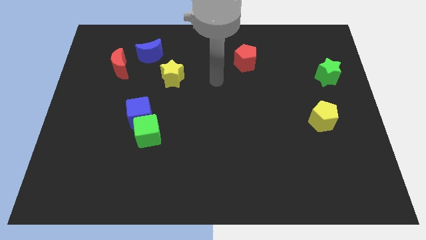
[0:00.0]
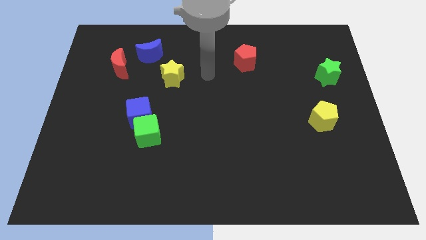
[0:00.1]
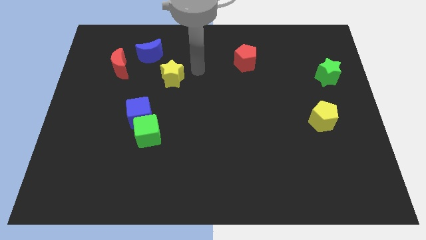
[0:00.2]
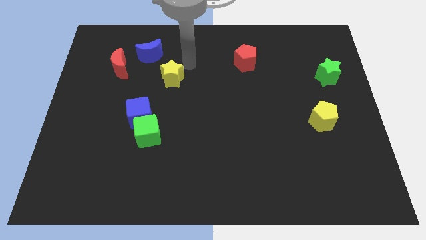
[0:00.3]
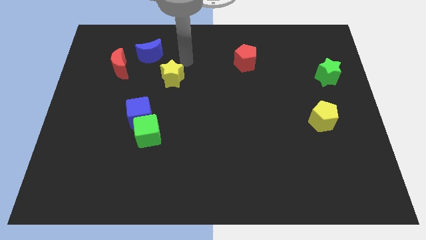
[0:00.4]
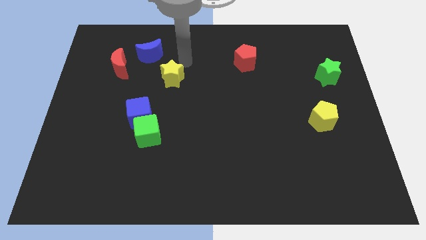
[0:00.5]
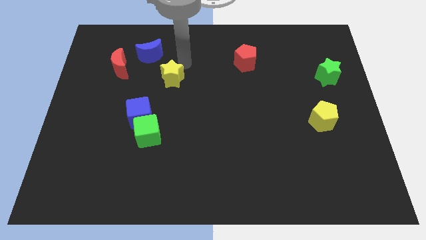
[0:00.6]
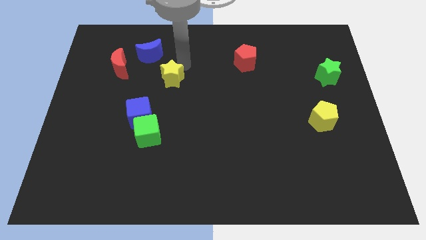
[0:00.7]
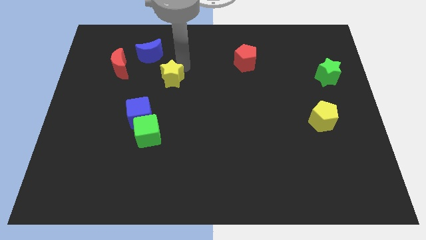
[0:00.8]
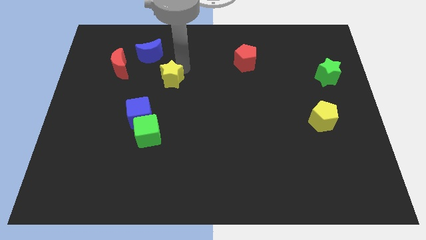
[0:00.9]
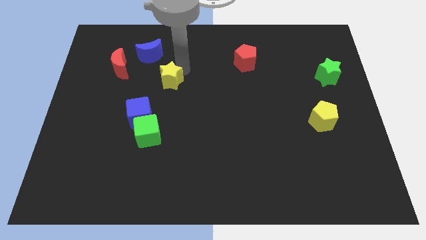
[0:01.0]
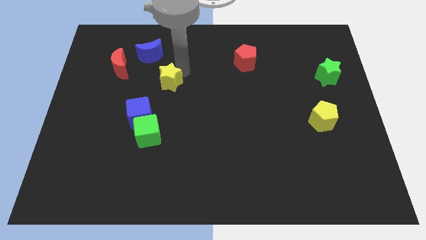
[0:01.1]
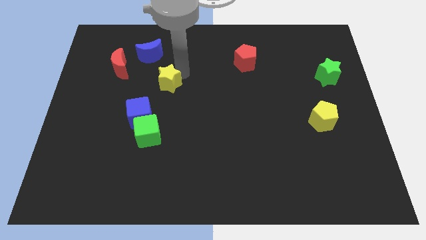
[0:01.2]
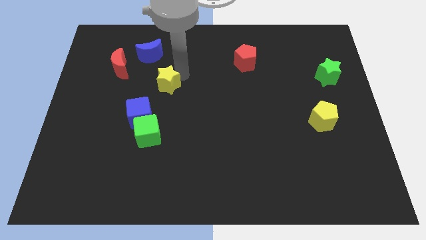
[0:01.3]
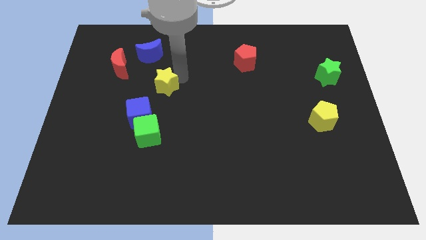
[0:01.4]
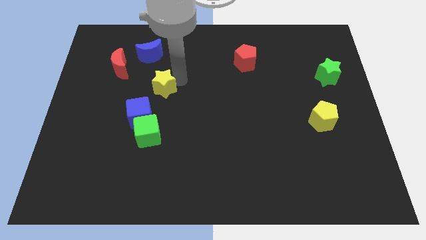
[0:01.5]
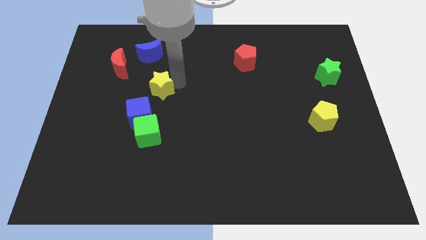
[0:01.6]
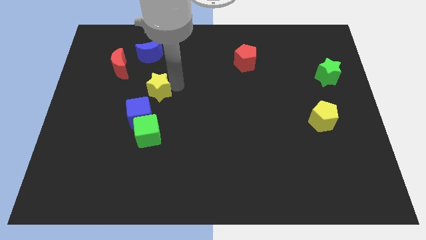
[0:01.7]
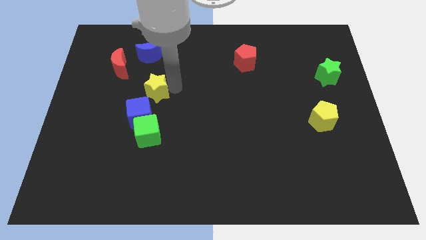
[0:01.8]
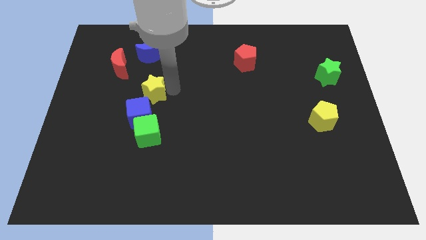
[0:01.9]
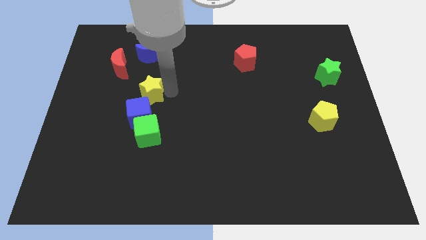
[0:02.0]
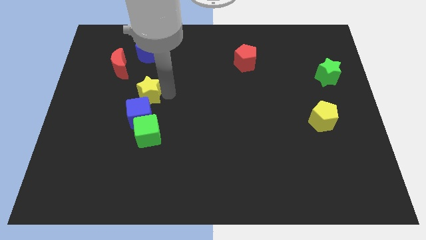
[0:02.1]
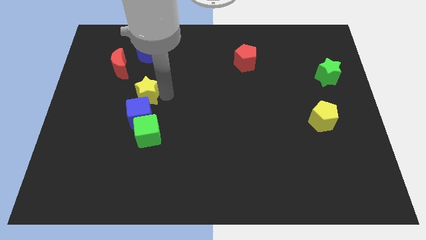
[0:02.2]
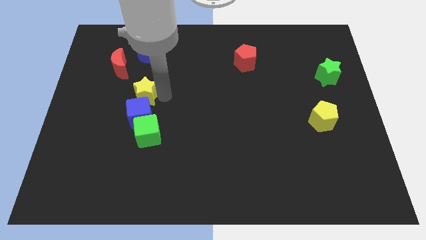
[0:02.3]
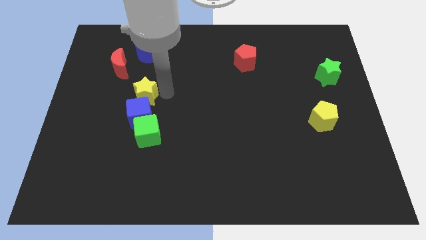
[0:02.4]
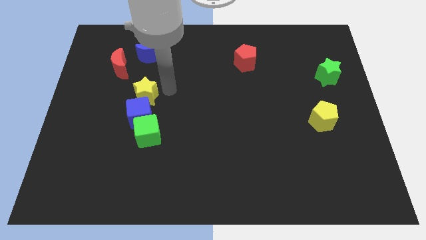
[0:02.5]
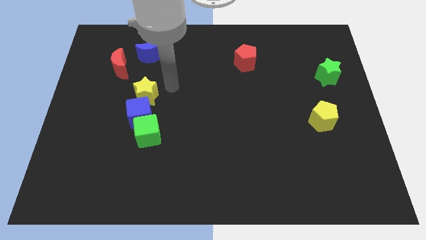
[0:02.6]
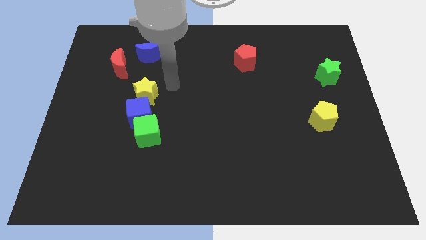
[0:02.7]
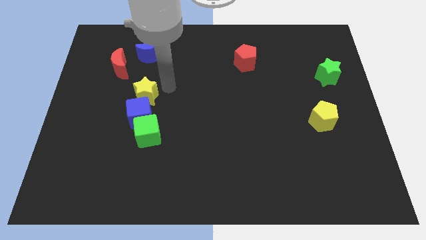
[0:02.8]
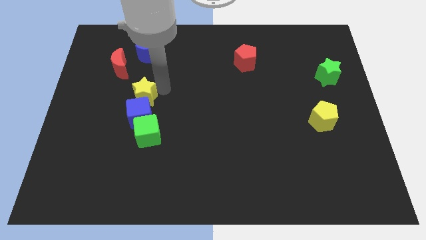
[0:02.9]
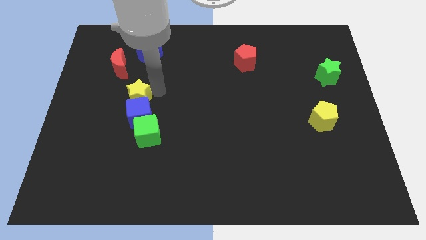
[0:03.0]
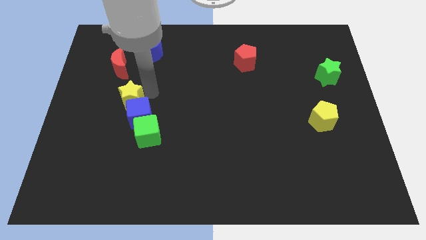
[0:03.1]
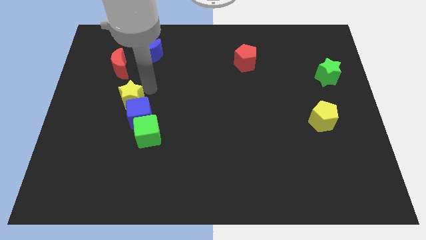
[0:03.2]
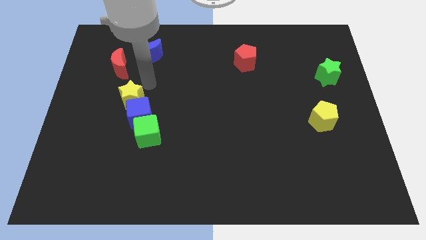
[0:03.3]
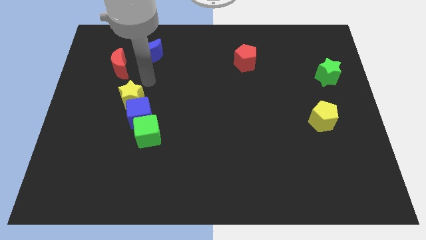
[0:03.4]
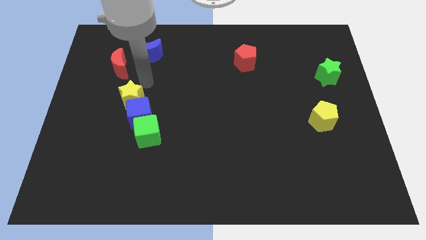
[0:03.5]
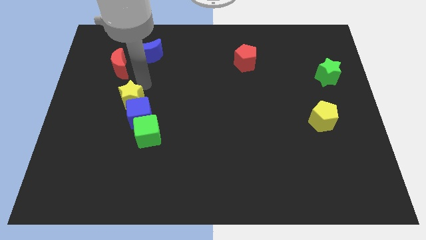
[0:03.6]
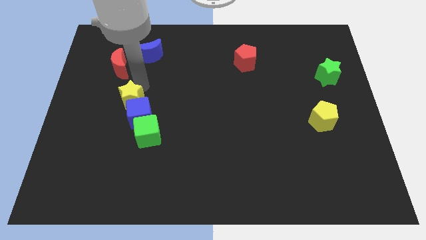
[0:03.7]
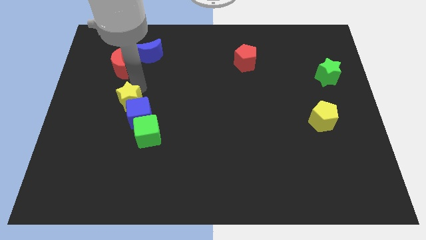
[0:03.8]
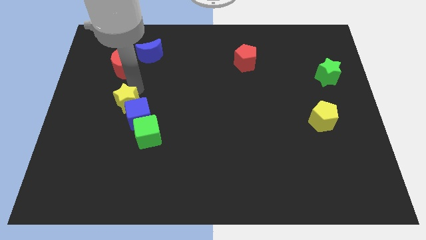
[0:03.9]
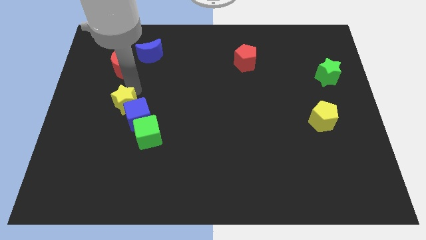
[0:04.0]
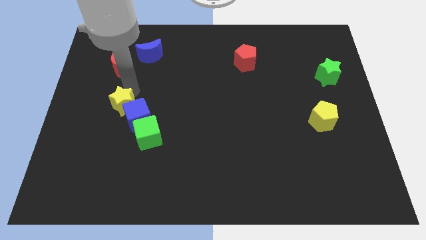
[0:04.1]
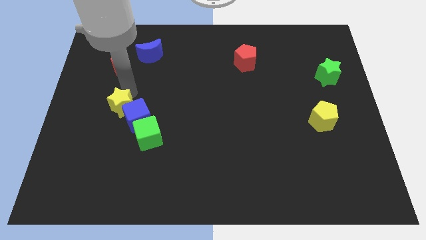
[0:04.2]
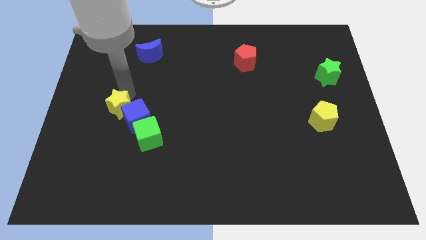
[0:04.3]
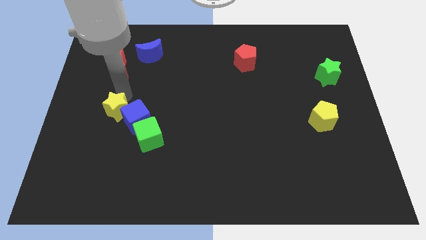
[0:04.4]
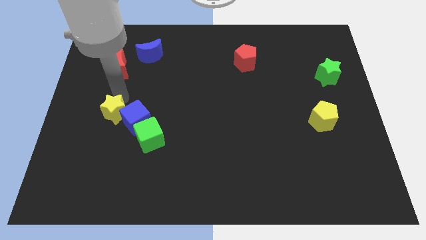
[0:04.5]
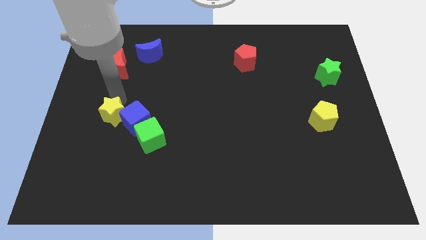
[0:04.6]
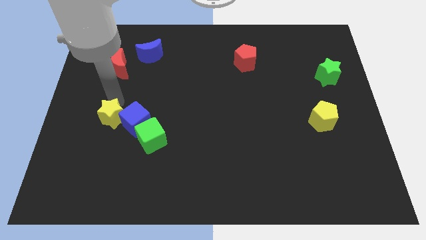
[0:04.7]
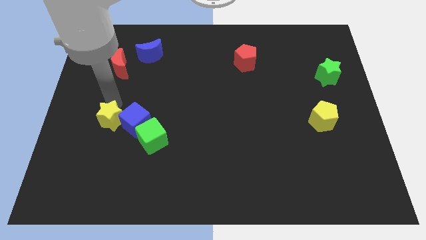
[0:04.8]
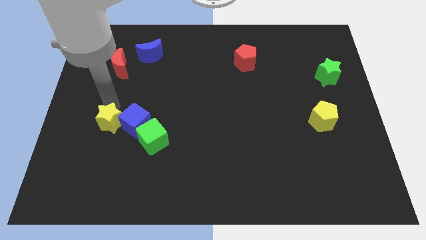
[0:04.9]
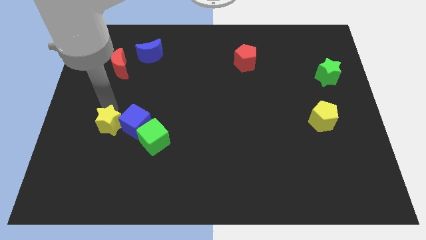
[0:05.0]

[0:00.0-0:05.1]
slide the yellow star just left of the green cube

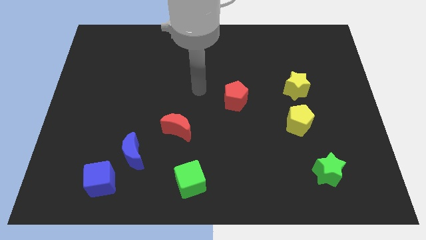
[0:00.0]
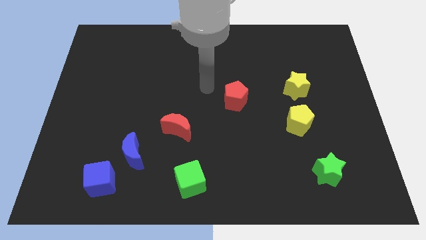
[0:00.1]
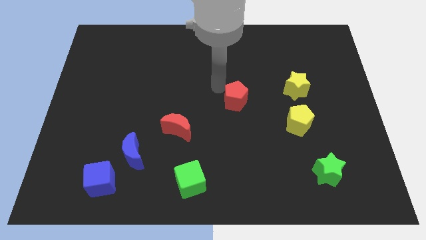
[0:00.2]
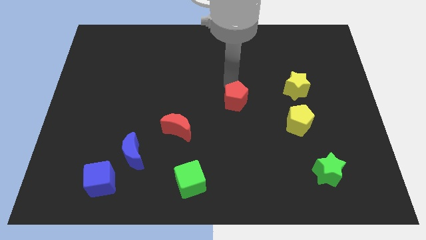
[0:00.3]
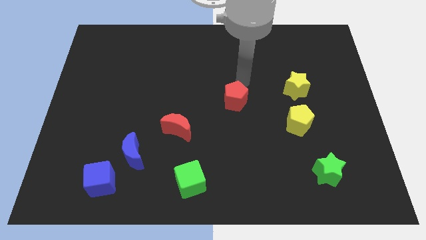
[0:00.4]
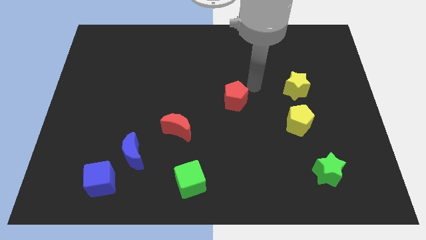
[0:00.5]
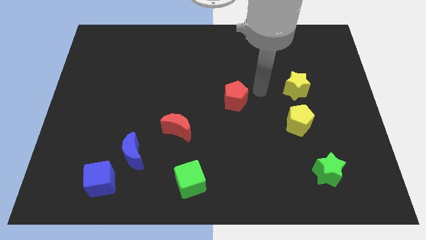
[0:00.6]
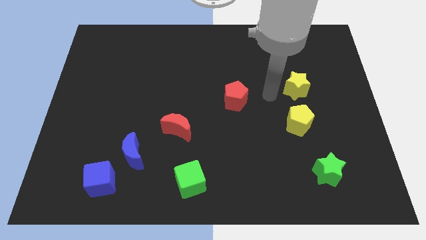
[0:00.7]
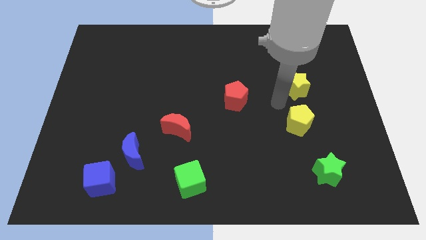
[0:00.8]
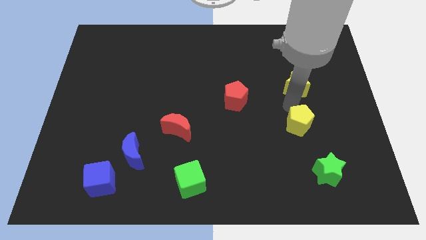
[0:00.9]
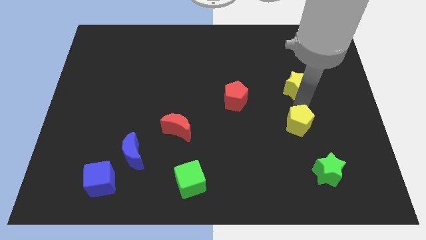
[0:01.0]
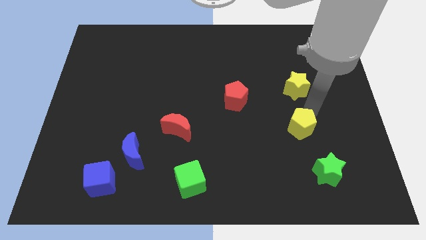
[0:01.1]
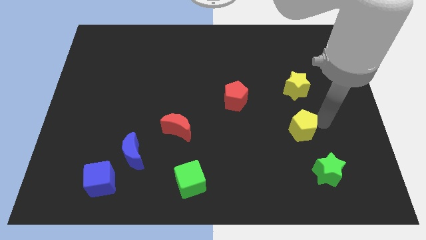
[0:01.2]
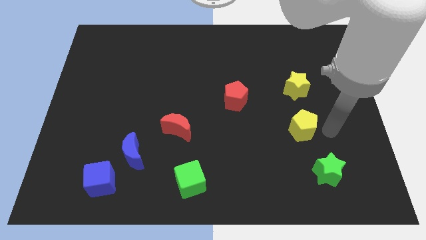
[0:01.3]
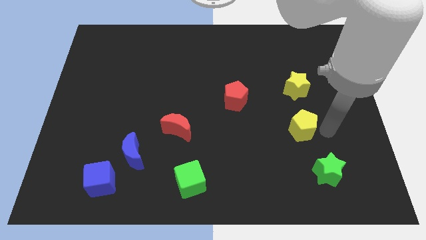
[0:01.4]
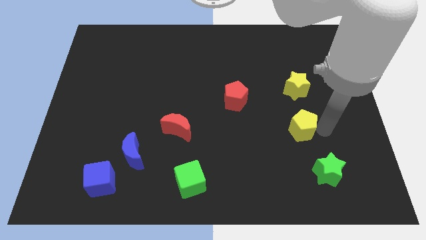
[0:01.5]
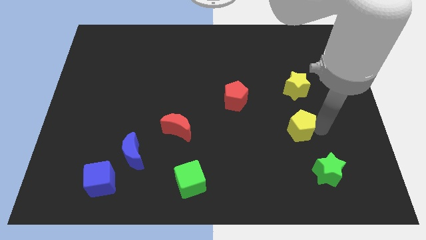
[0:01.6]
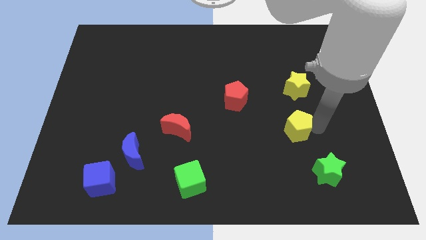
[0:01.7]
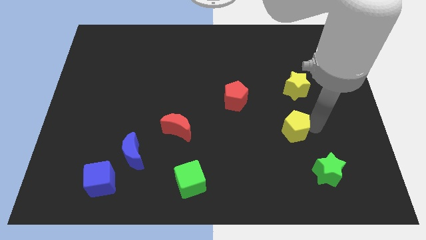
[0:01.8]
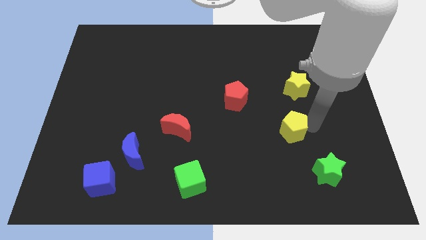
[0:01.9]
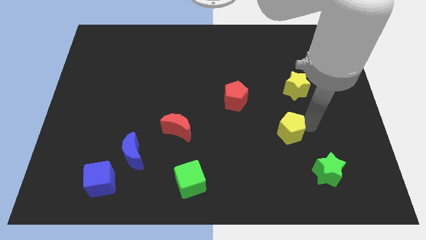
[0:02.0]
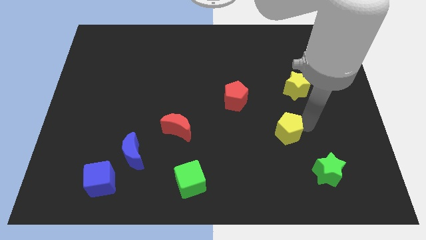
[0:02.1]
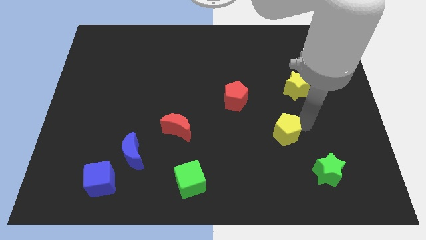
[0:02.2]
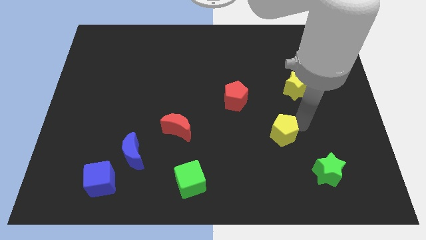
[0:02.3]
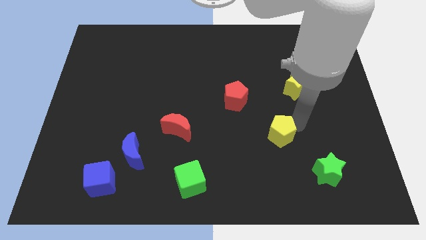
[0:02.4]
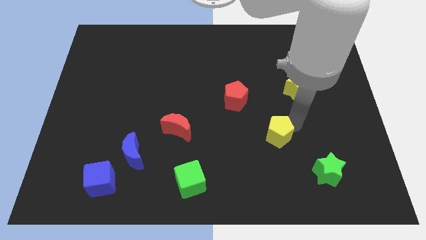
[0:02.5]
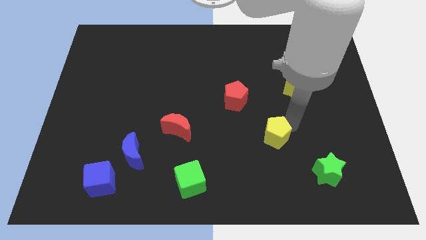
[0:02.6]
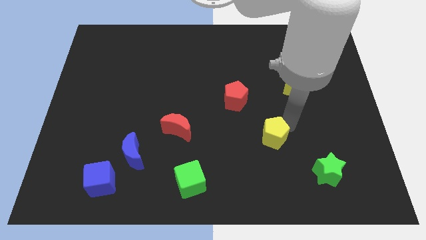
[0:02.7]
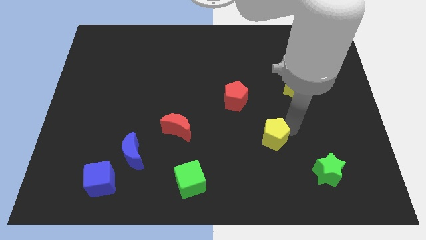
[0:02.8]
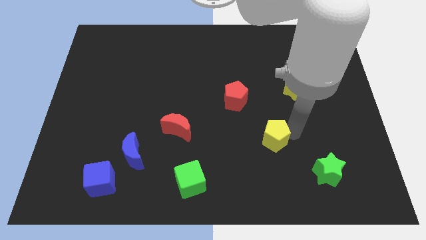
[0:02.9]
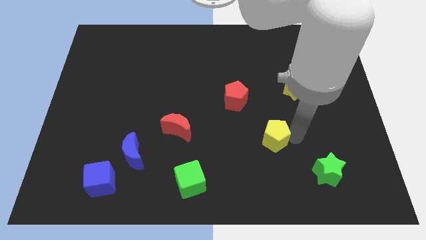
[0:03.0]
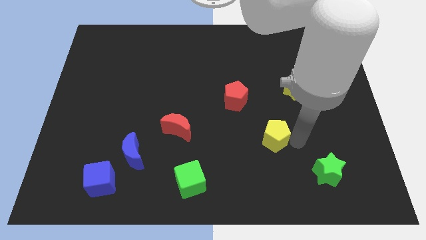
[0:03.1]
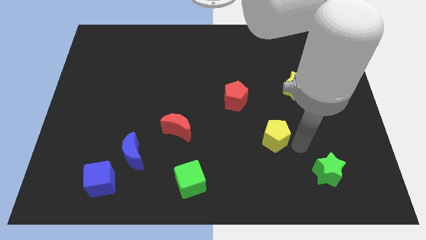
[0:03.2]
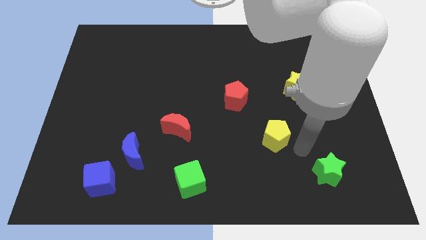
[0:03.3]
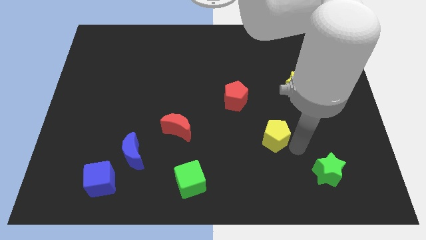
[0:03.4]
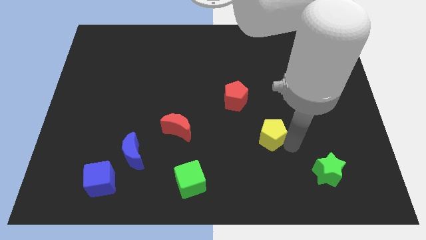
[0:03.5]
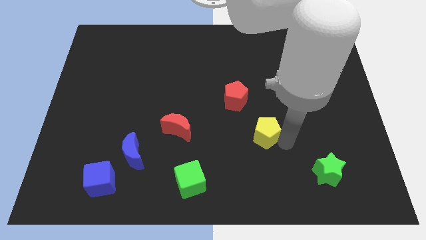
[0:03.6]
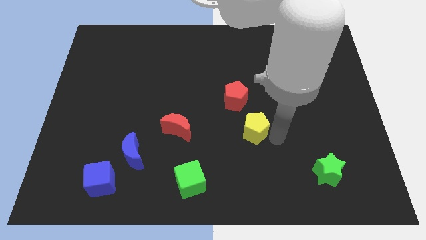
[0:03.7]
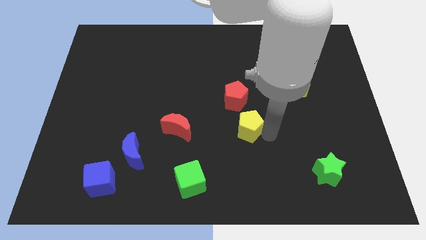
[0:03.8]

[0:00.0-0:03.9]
push the yellow pentagon right of the red moon
